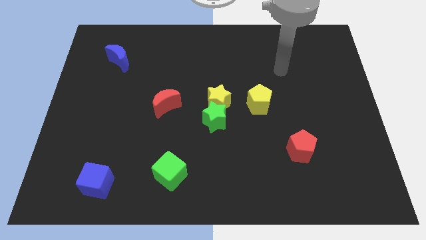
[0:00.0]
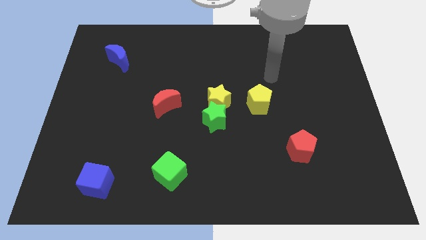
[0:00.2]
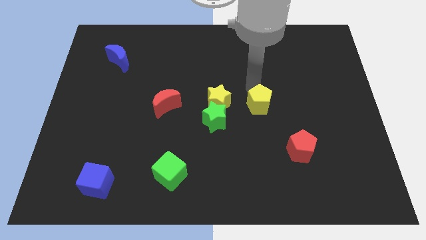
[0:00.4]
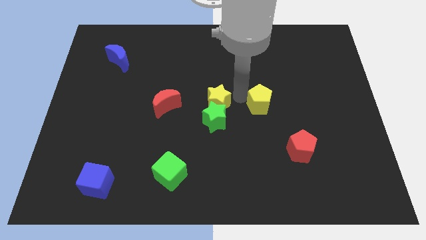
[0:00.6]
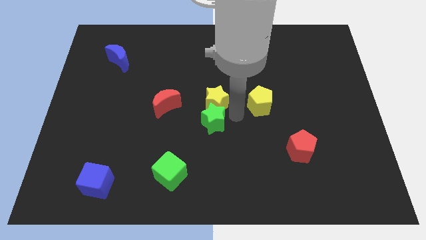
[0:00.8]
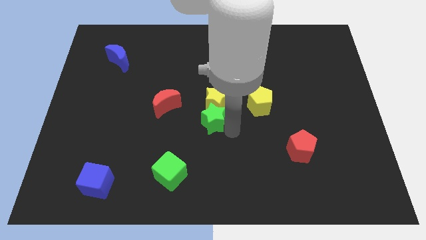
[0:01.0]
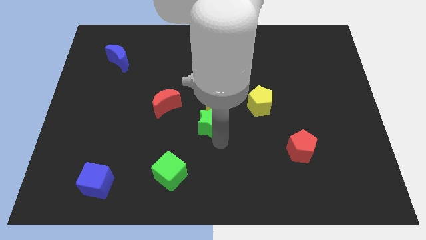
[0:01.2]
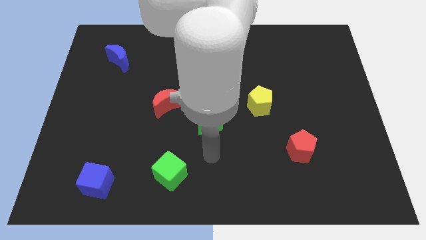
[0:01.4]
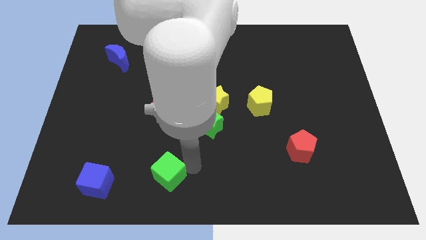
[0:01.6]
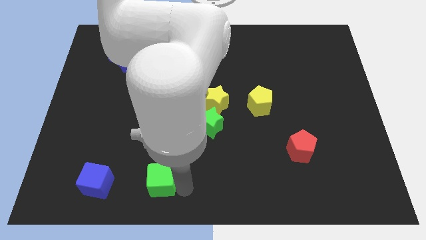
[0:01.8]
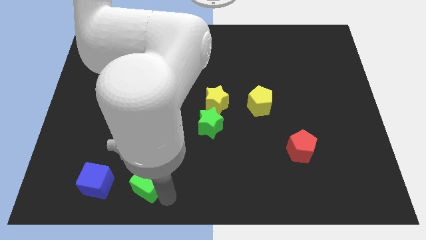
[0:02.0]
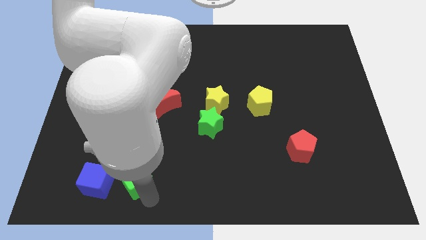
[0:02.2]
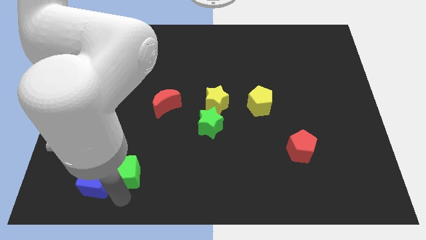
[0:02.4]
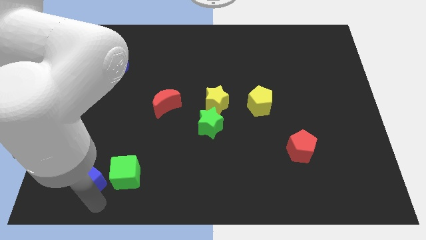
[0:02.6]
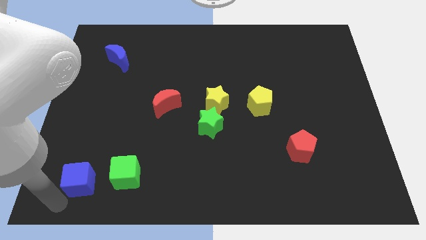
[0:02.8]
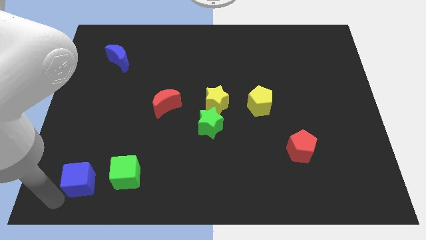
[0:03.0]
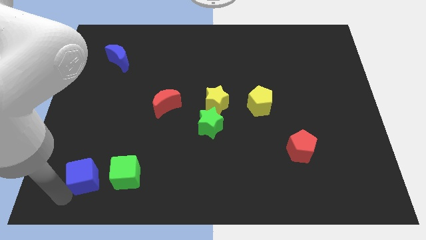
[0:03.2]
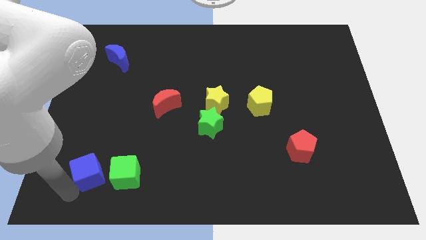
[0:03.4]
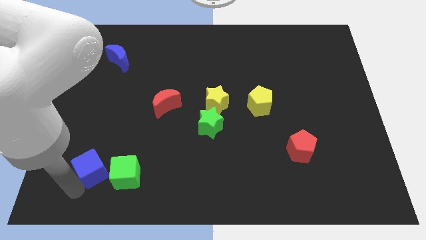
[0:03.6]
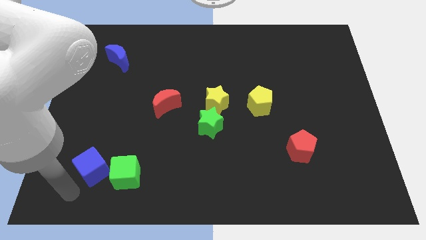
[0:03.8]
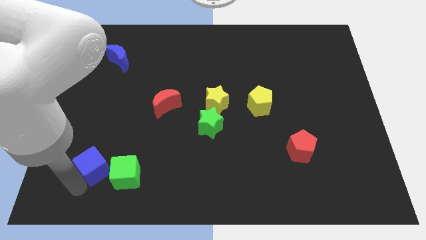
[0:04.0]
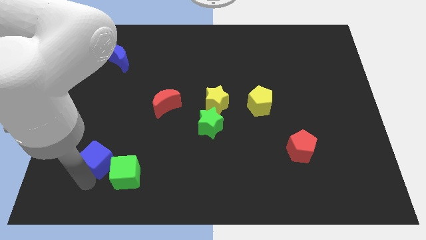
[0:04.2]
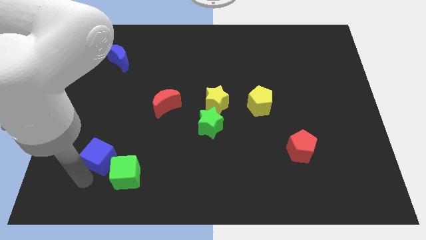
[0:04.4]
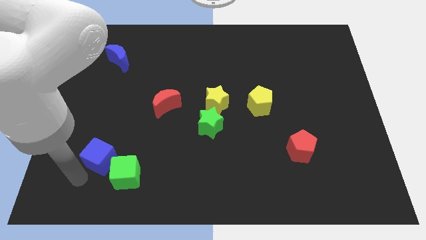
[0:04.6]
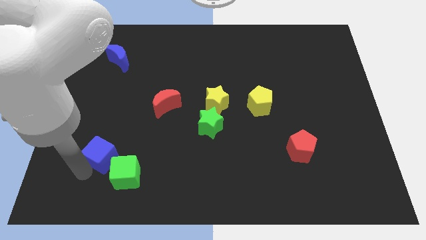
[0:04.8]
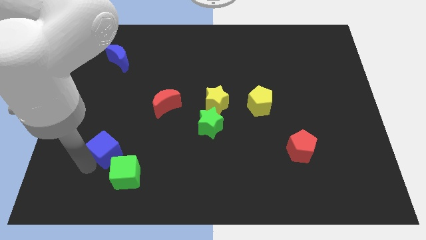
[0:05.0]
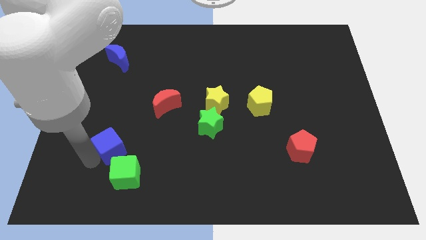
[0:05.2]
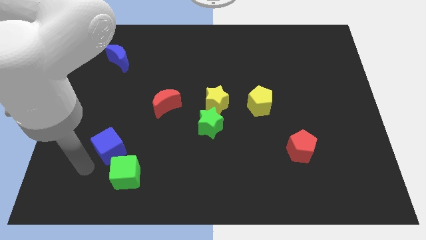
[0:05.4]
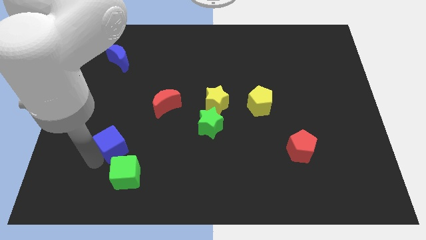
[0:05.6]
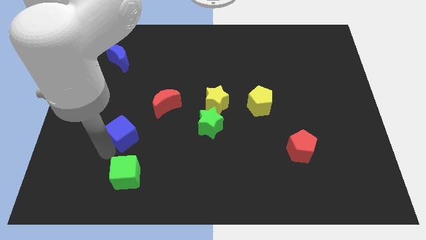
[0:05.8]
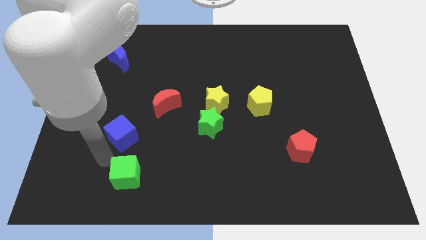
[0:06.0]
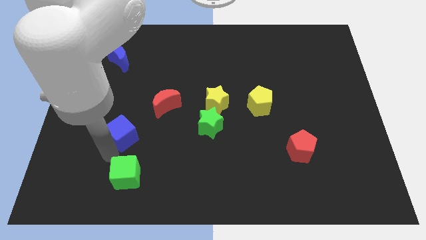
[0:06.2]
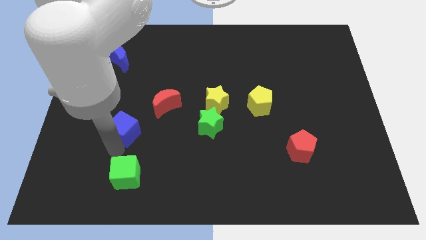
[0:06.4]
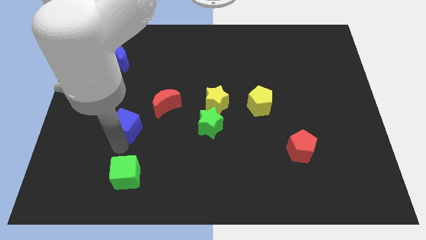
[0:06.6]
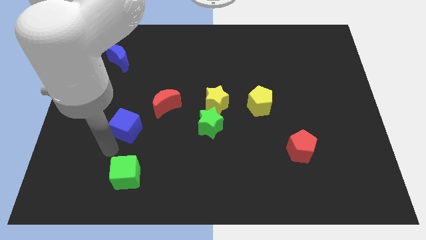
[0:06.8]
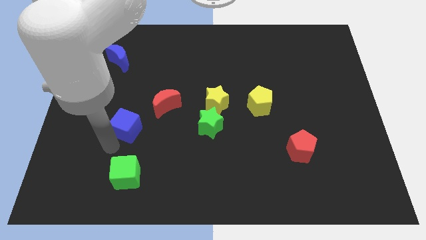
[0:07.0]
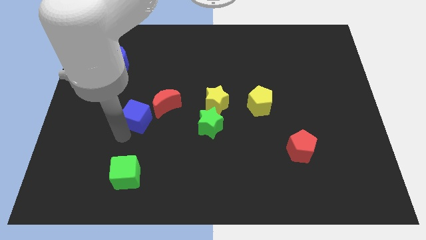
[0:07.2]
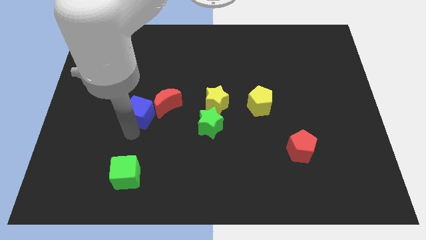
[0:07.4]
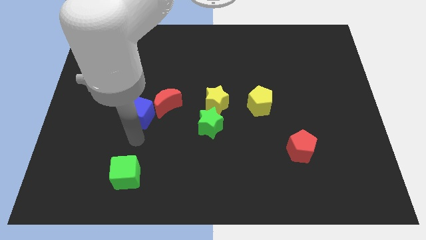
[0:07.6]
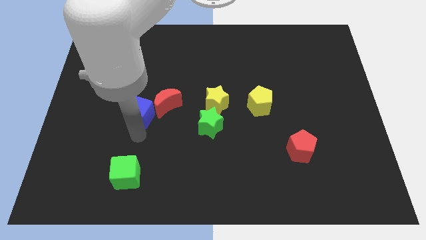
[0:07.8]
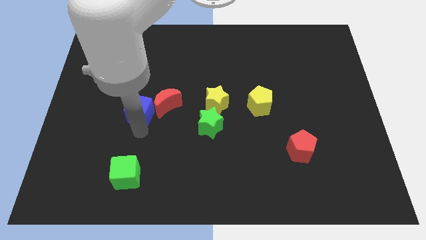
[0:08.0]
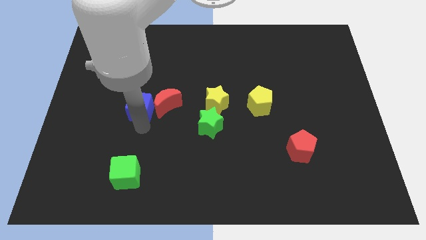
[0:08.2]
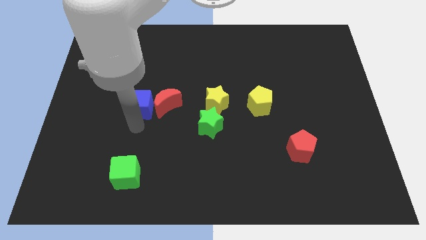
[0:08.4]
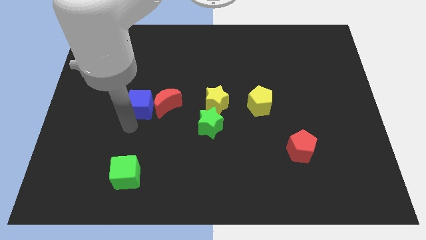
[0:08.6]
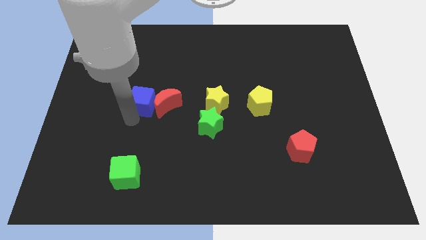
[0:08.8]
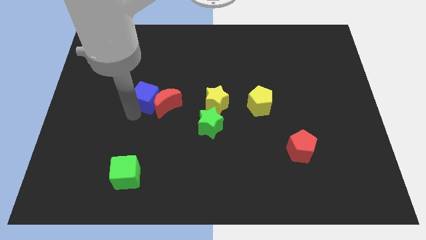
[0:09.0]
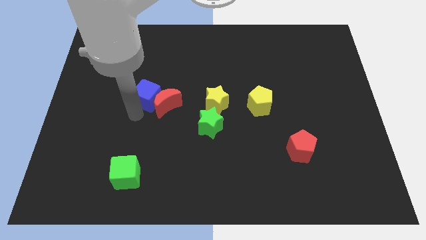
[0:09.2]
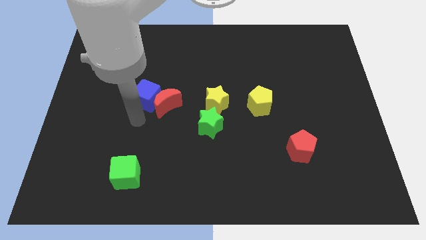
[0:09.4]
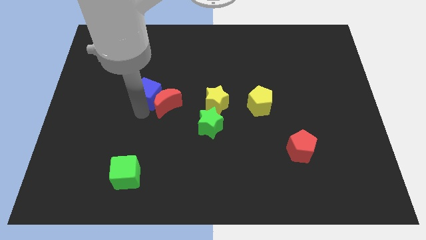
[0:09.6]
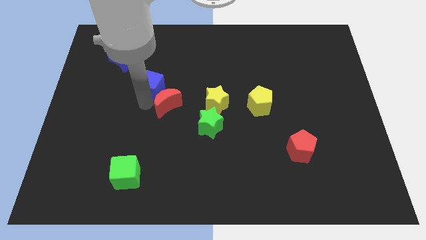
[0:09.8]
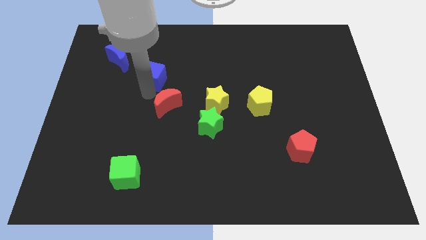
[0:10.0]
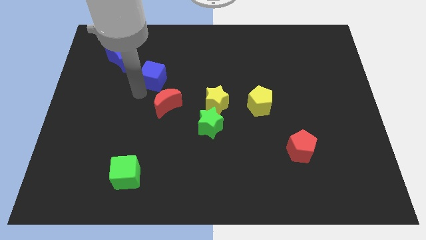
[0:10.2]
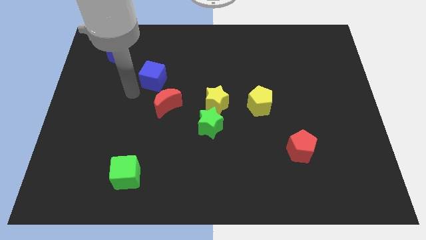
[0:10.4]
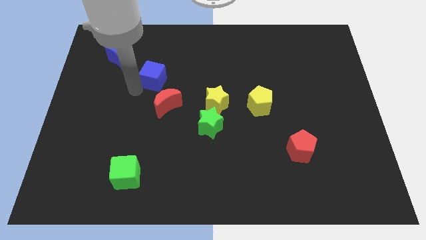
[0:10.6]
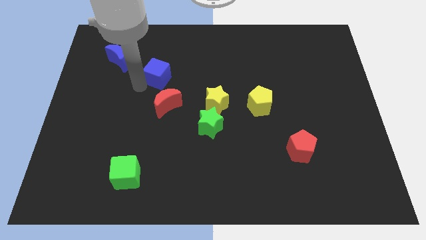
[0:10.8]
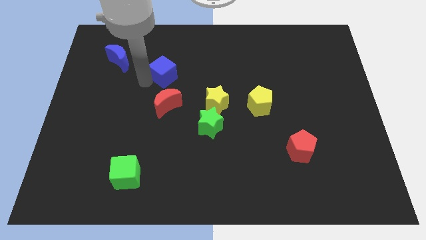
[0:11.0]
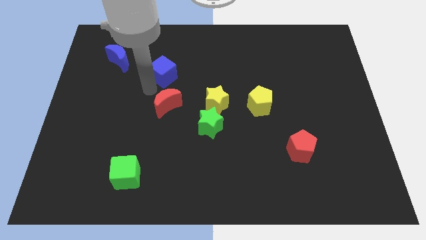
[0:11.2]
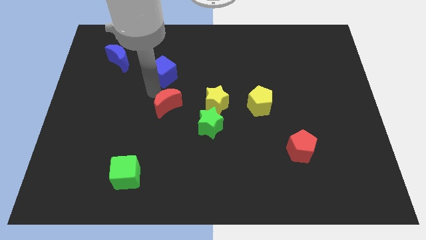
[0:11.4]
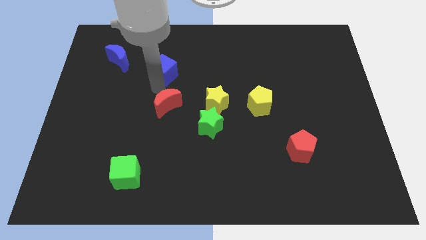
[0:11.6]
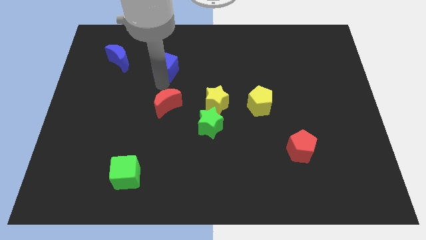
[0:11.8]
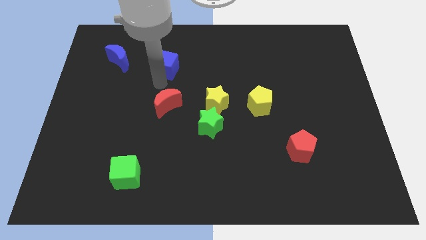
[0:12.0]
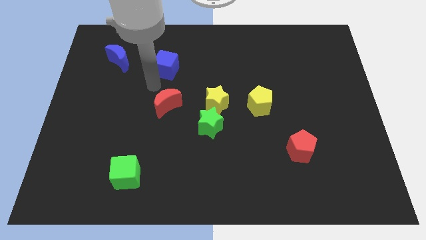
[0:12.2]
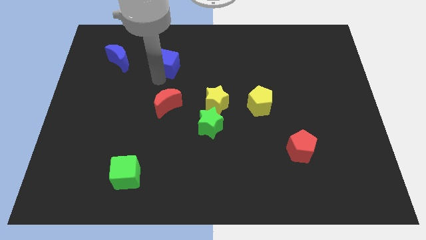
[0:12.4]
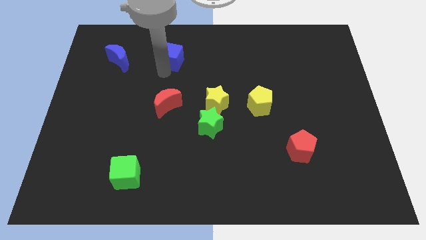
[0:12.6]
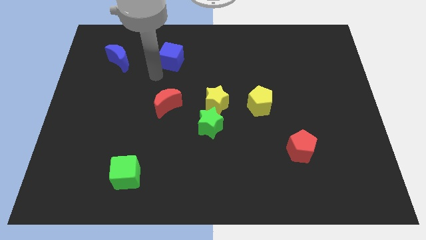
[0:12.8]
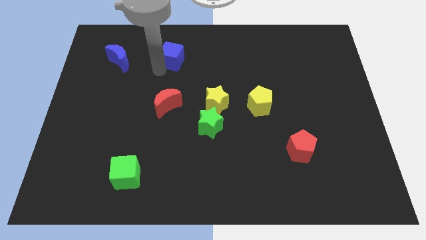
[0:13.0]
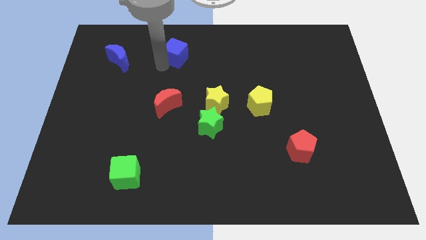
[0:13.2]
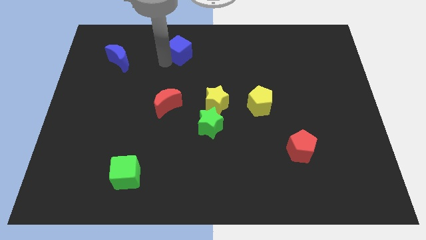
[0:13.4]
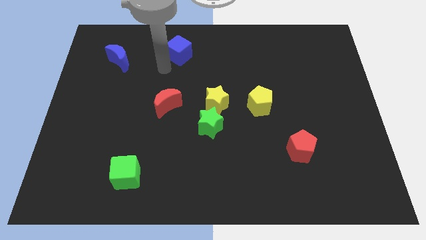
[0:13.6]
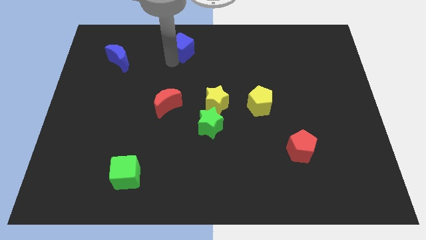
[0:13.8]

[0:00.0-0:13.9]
push the blue cube to the towards your base
